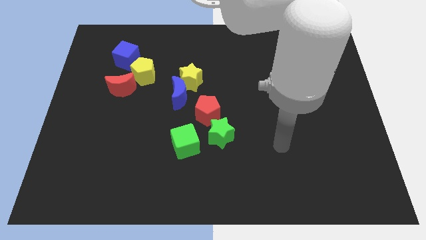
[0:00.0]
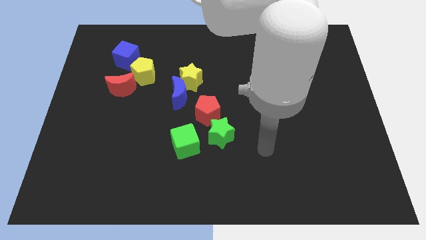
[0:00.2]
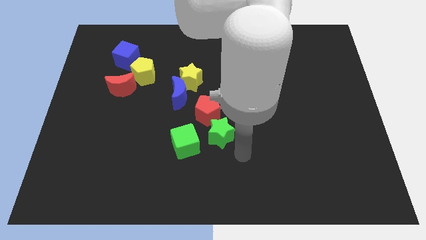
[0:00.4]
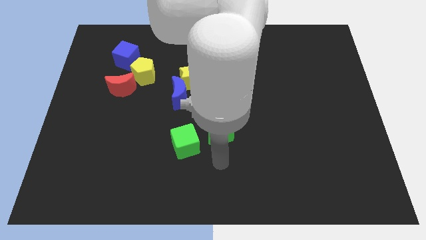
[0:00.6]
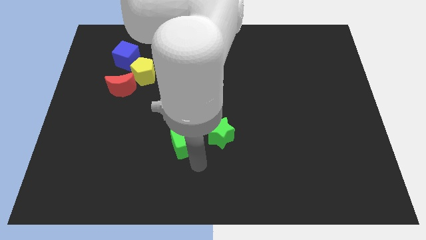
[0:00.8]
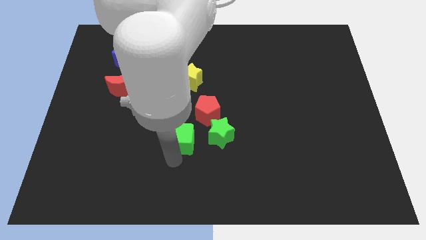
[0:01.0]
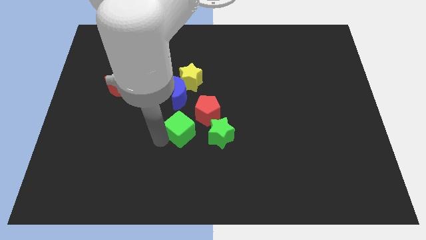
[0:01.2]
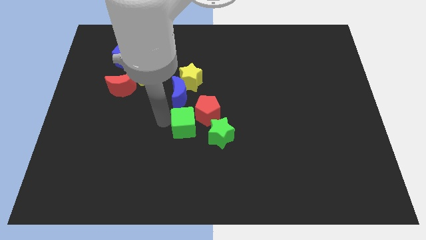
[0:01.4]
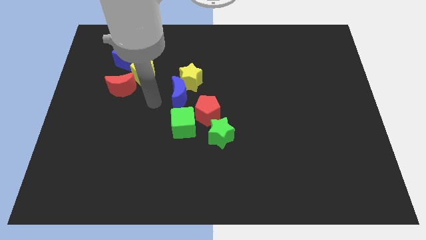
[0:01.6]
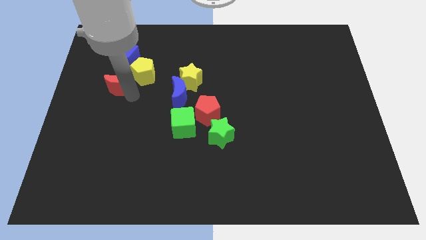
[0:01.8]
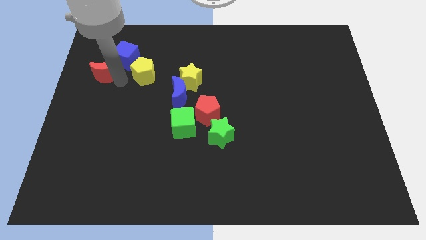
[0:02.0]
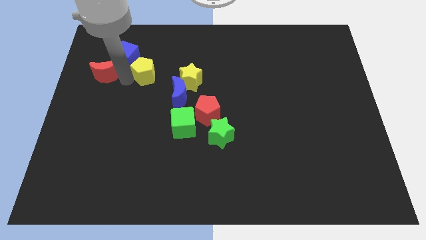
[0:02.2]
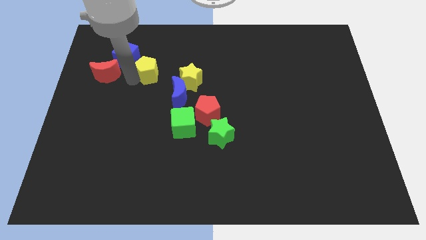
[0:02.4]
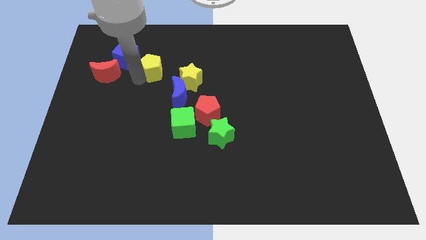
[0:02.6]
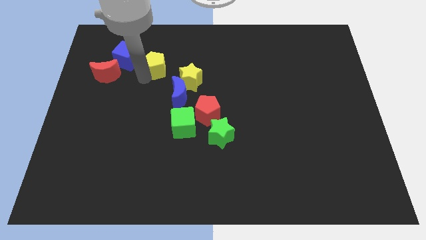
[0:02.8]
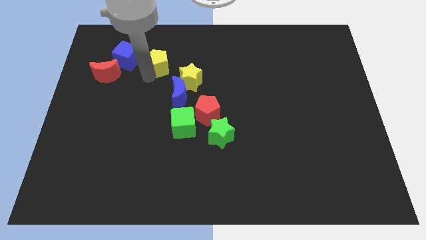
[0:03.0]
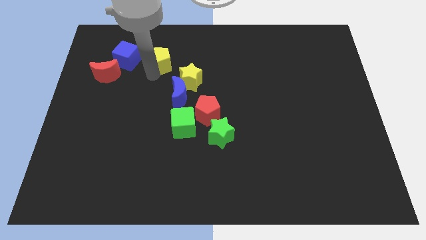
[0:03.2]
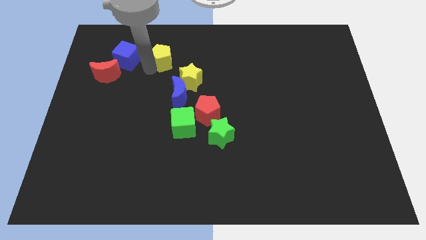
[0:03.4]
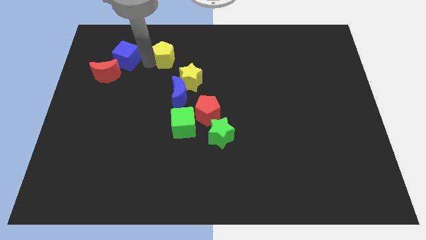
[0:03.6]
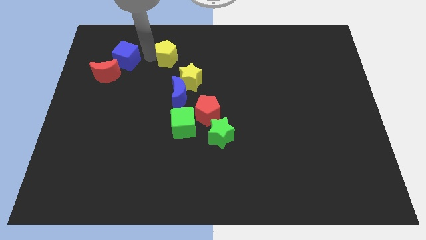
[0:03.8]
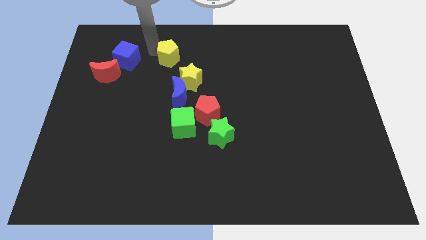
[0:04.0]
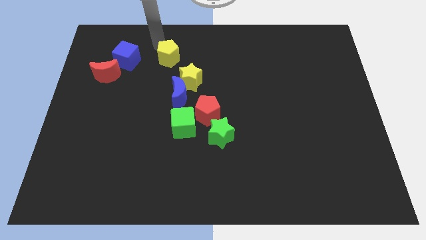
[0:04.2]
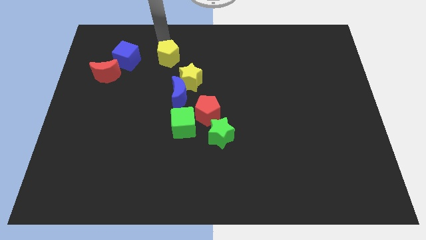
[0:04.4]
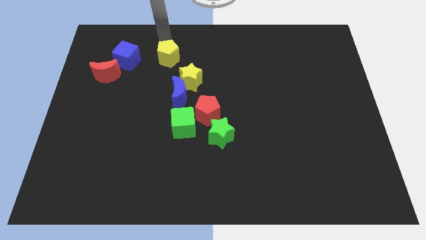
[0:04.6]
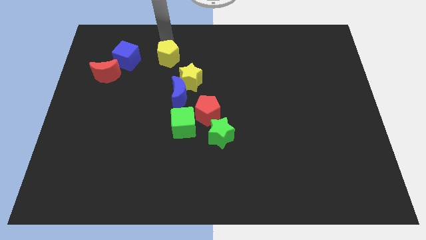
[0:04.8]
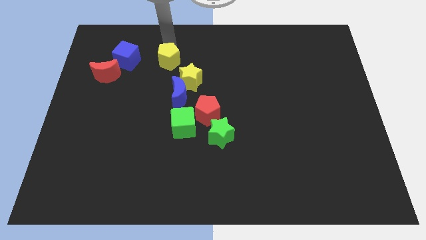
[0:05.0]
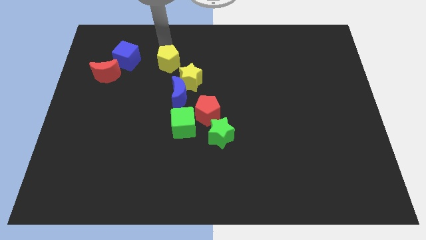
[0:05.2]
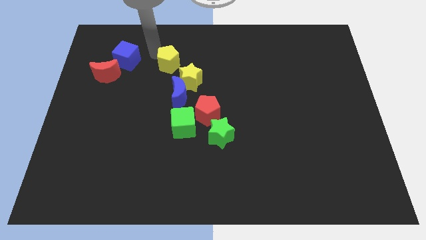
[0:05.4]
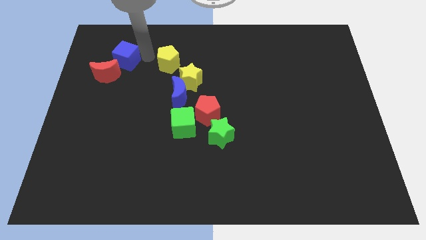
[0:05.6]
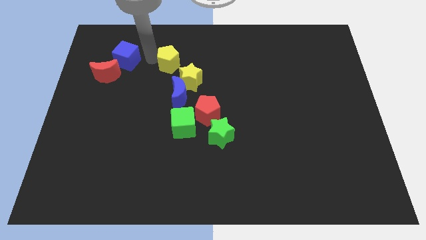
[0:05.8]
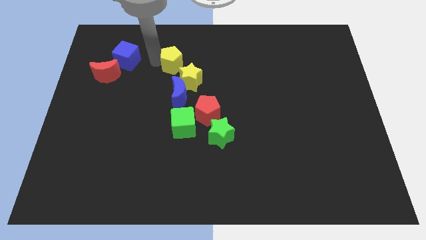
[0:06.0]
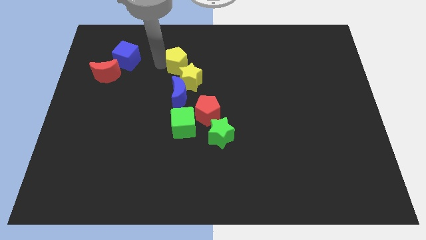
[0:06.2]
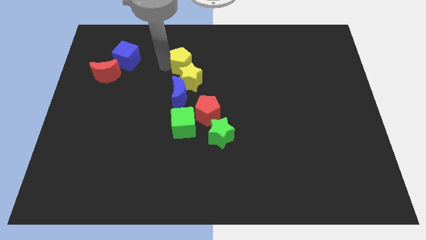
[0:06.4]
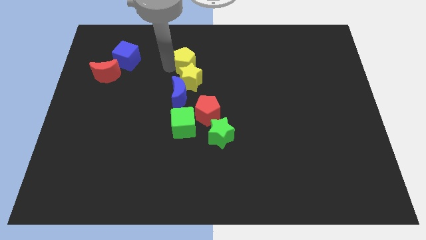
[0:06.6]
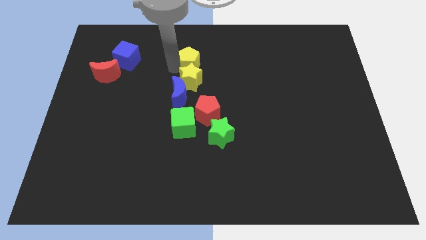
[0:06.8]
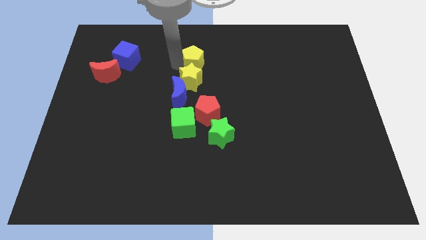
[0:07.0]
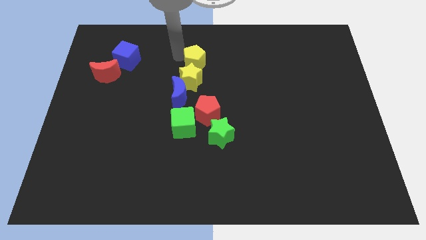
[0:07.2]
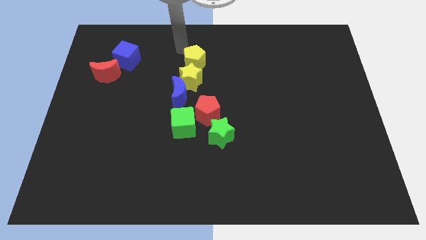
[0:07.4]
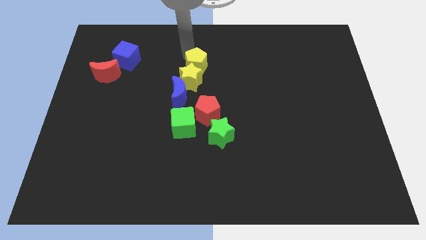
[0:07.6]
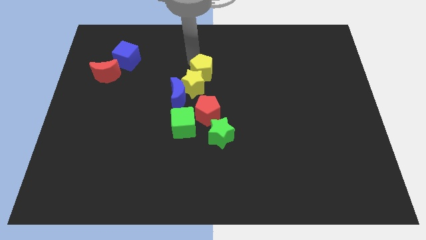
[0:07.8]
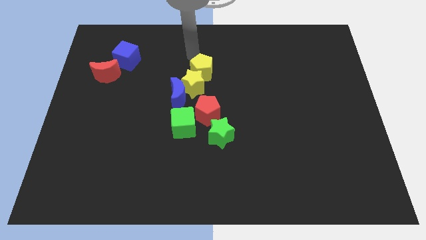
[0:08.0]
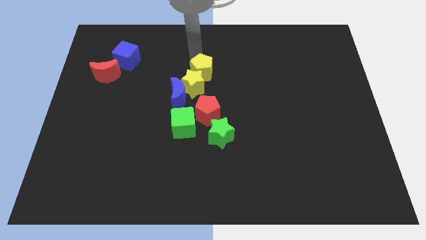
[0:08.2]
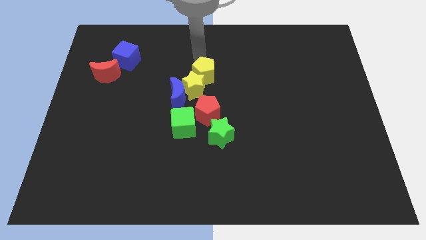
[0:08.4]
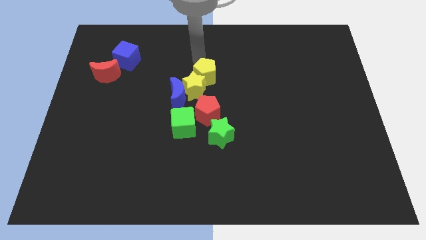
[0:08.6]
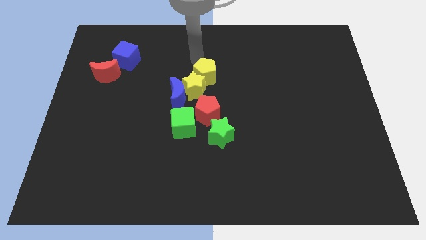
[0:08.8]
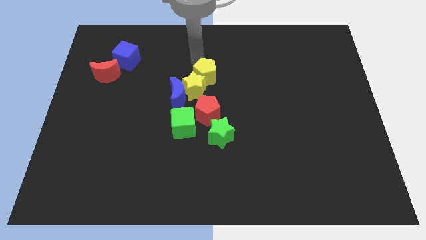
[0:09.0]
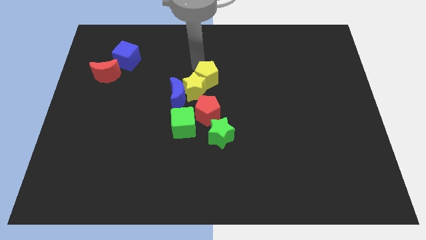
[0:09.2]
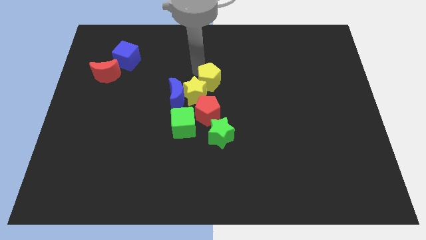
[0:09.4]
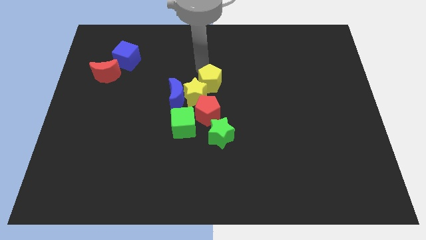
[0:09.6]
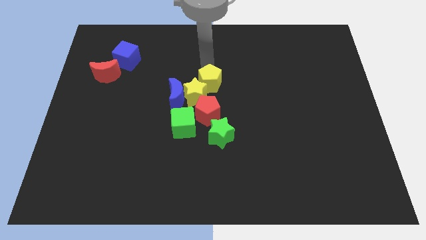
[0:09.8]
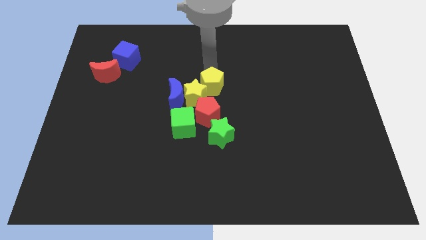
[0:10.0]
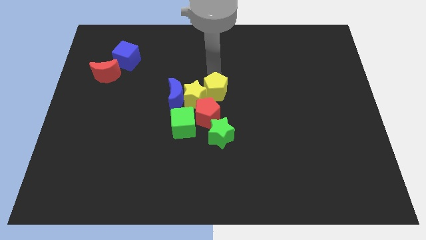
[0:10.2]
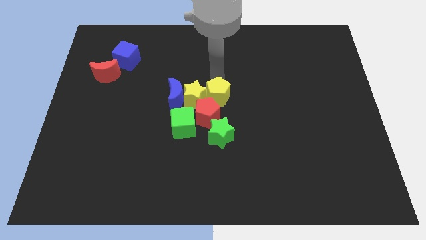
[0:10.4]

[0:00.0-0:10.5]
push the yellow pentagon to the bottom right side of the yellow star

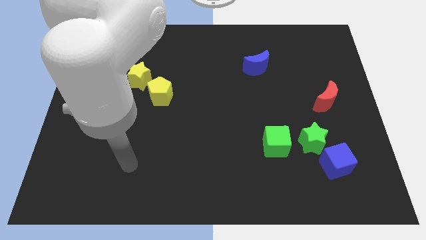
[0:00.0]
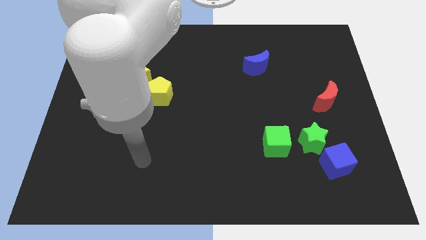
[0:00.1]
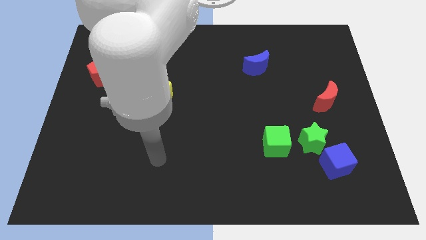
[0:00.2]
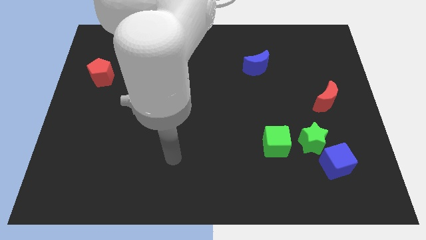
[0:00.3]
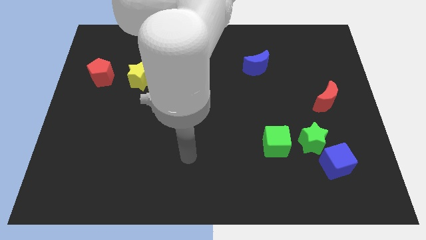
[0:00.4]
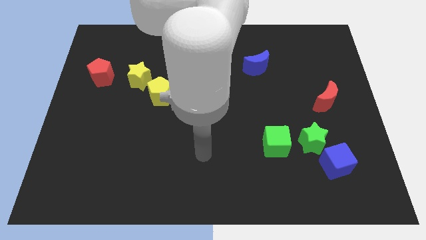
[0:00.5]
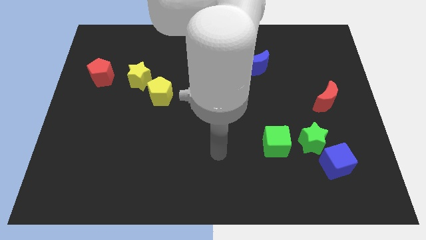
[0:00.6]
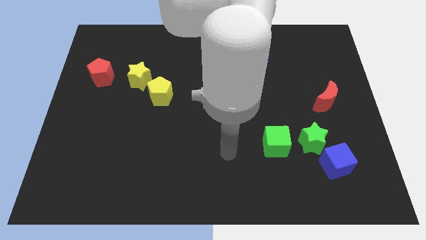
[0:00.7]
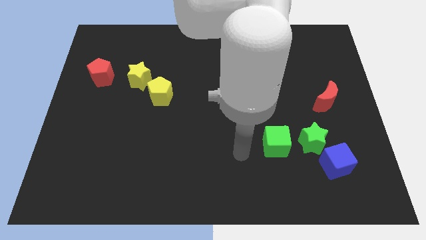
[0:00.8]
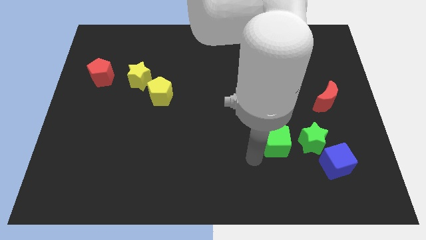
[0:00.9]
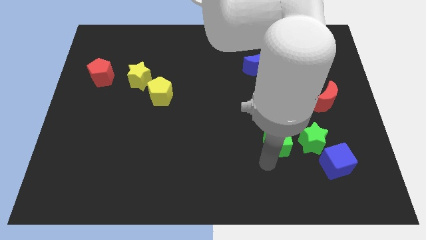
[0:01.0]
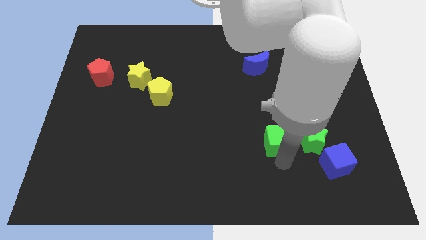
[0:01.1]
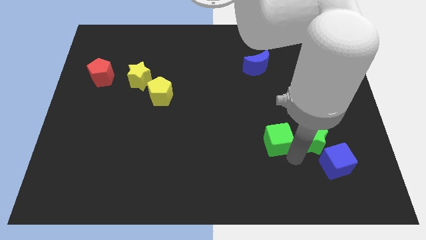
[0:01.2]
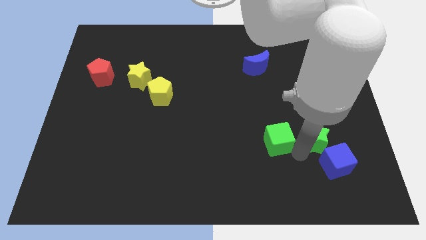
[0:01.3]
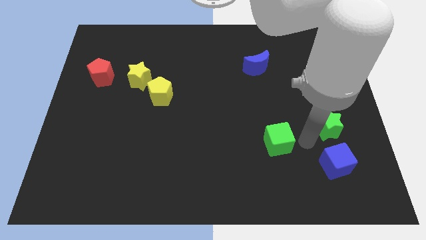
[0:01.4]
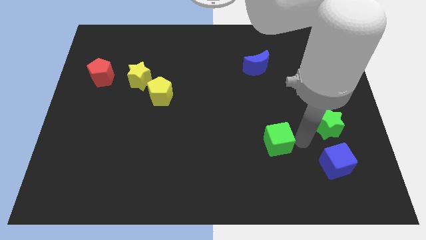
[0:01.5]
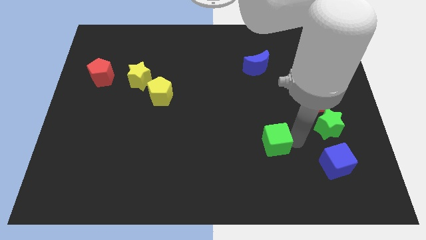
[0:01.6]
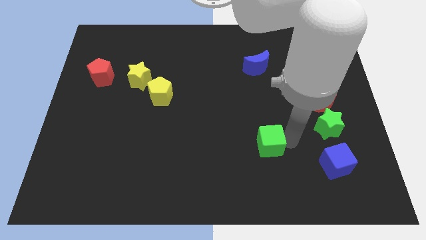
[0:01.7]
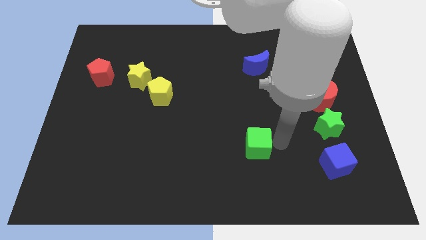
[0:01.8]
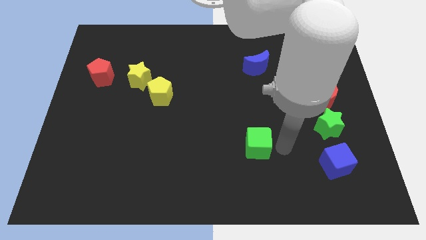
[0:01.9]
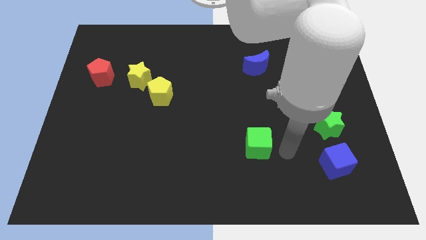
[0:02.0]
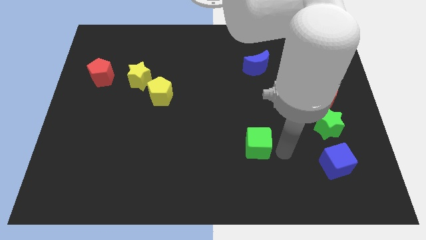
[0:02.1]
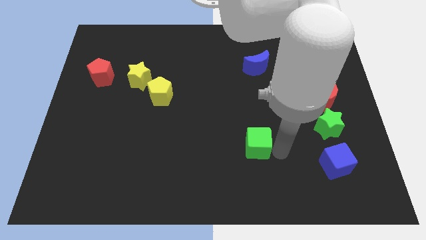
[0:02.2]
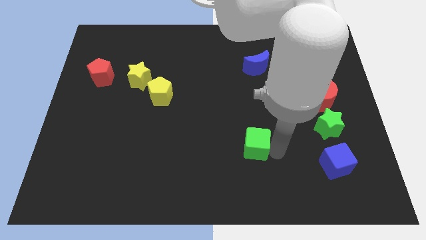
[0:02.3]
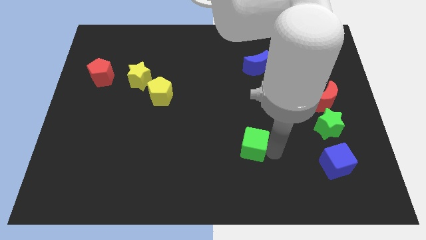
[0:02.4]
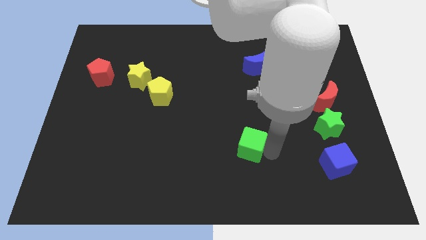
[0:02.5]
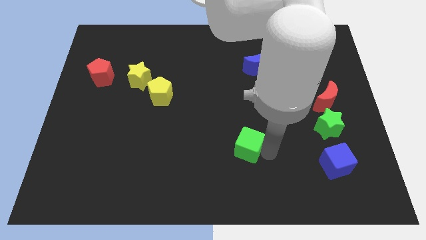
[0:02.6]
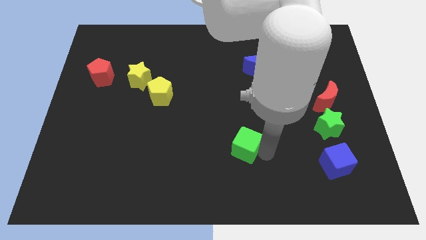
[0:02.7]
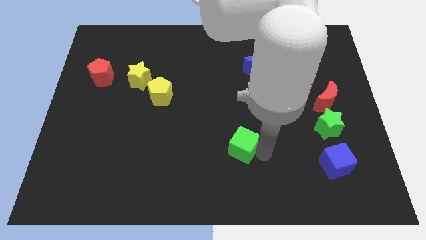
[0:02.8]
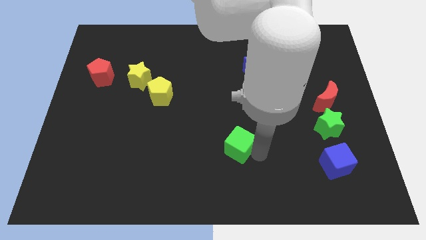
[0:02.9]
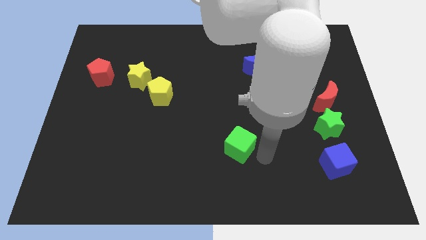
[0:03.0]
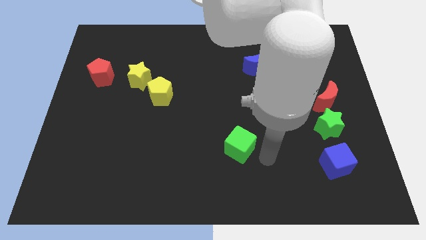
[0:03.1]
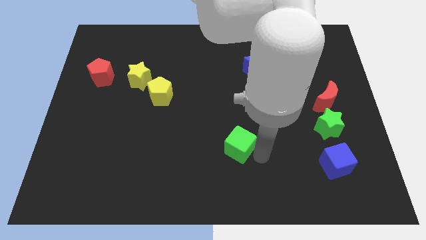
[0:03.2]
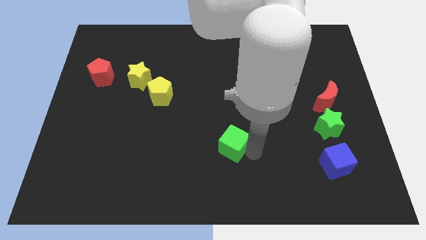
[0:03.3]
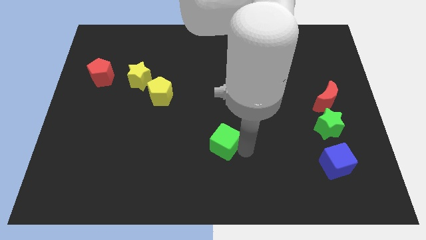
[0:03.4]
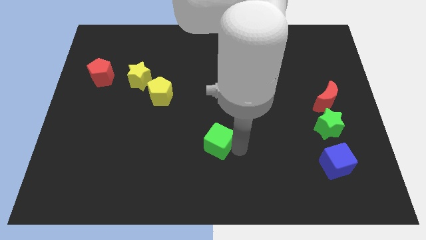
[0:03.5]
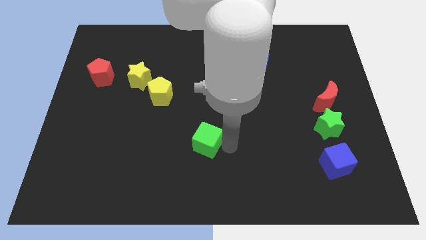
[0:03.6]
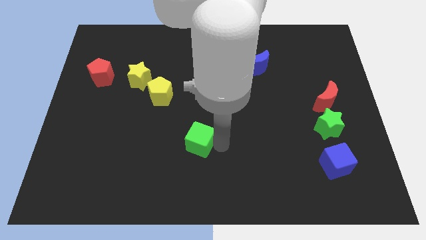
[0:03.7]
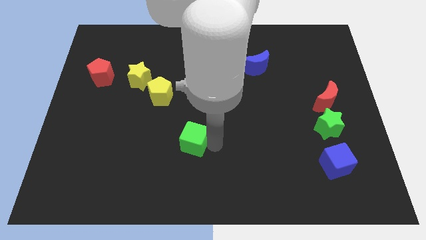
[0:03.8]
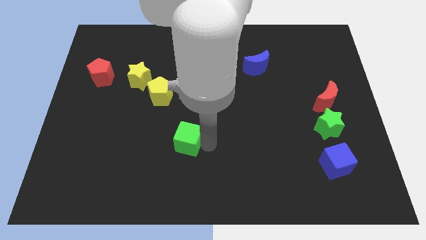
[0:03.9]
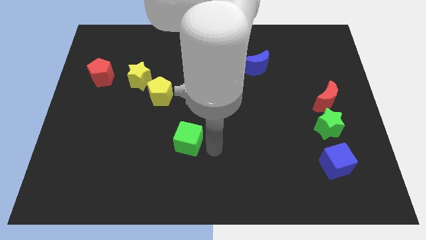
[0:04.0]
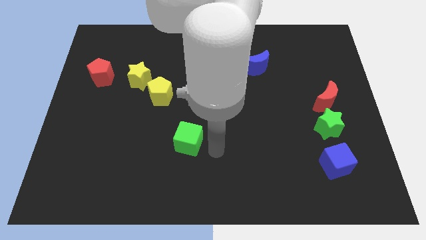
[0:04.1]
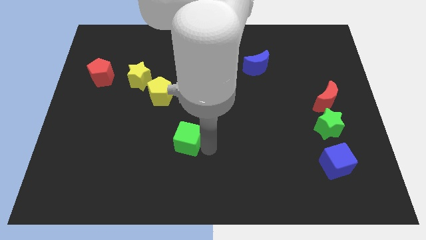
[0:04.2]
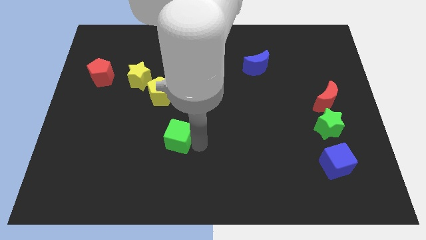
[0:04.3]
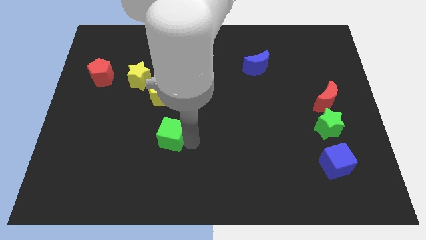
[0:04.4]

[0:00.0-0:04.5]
put the green cube to the bottom side of the yellow pentagon
